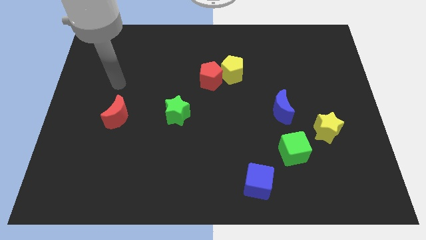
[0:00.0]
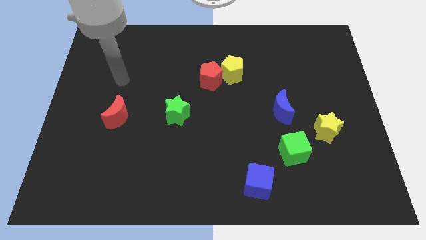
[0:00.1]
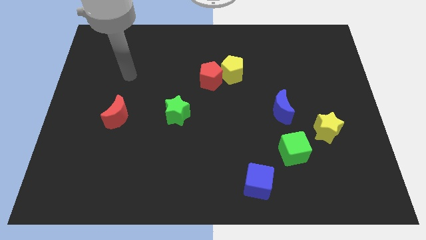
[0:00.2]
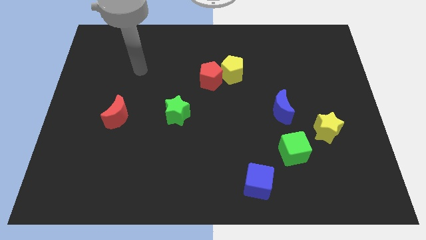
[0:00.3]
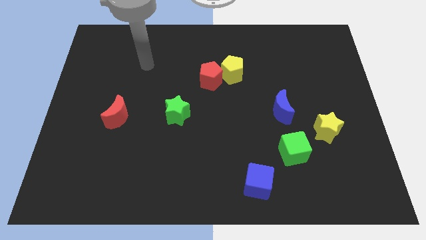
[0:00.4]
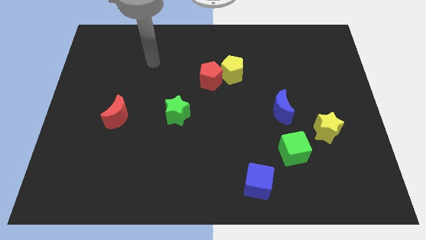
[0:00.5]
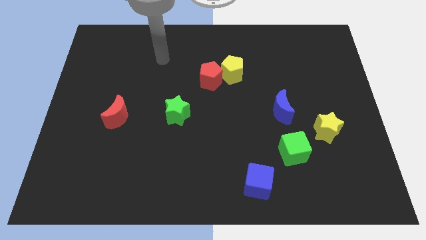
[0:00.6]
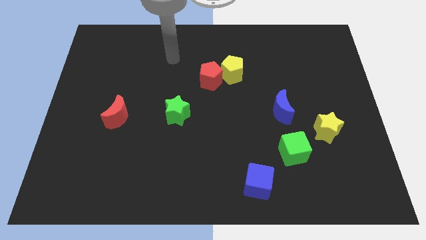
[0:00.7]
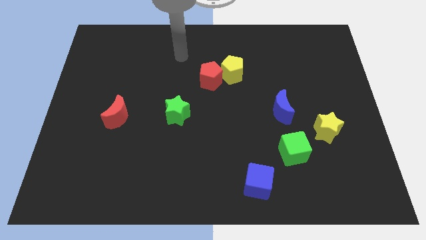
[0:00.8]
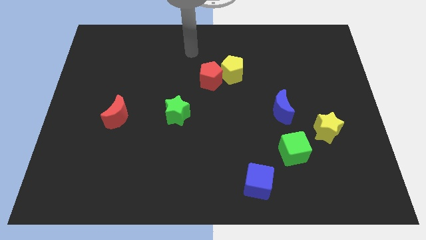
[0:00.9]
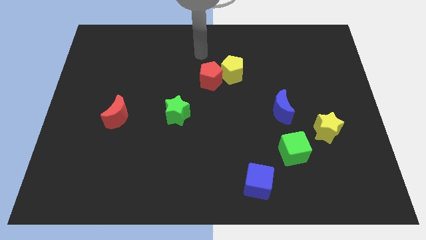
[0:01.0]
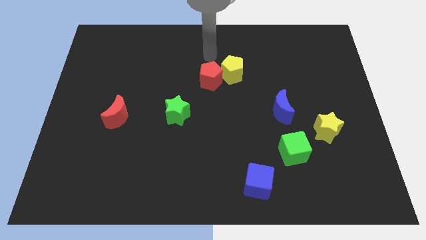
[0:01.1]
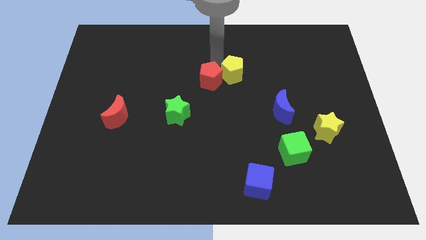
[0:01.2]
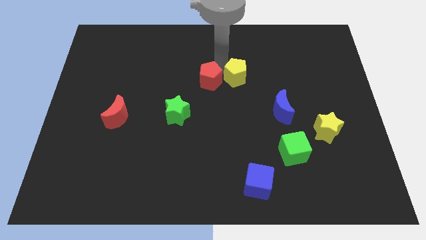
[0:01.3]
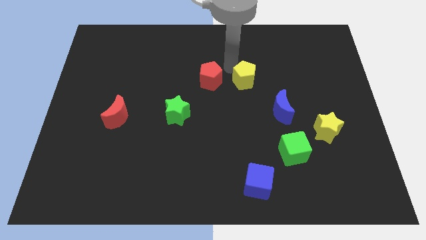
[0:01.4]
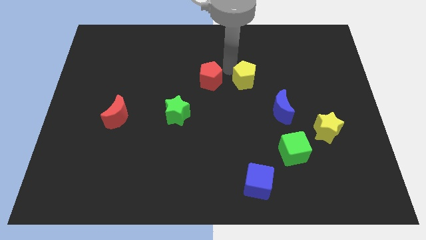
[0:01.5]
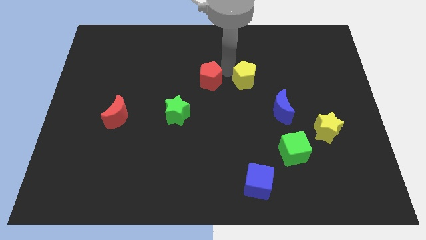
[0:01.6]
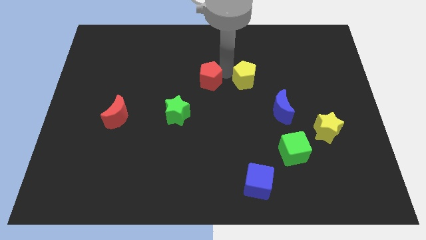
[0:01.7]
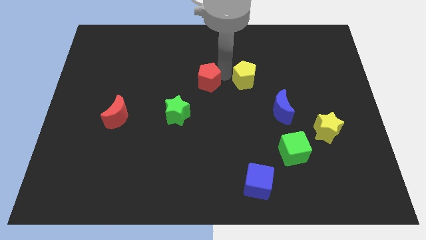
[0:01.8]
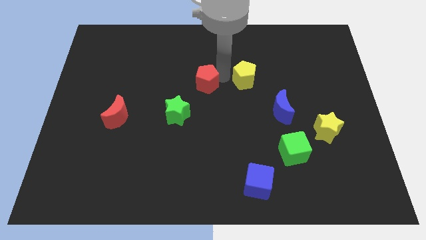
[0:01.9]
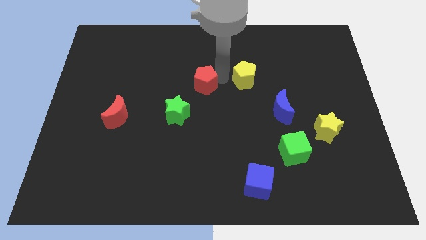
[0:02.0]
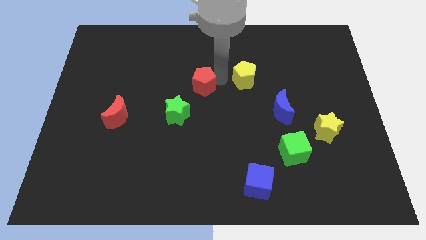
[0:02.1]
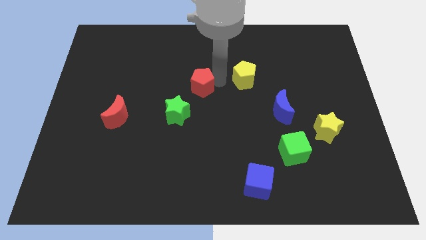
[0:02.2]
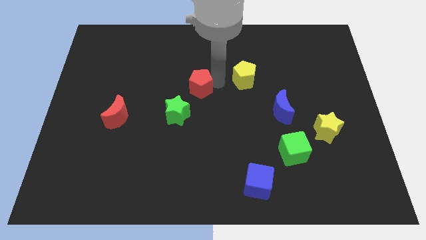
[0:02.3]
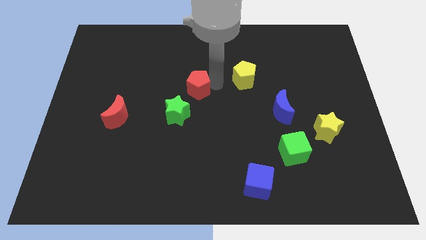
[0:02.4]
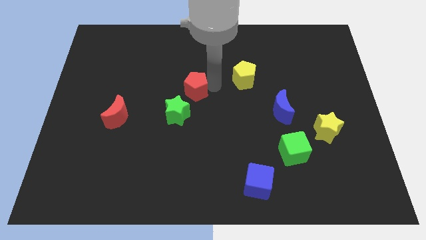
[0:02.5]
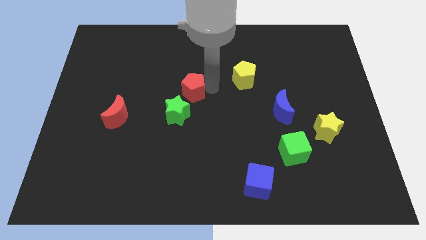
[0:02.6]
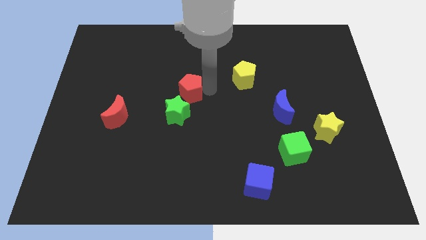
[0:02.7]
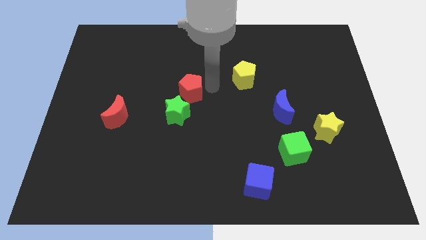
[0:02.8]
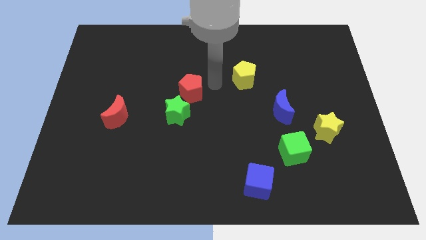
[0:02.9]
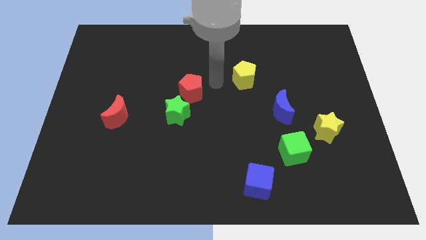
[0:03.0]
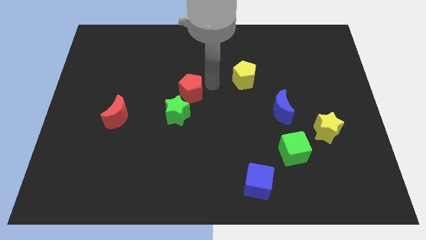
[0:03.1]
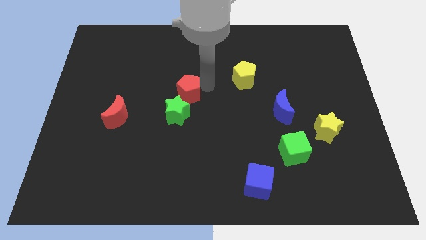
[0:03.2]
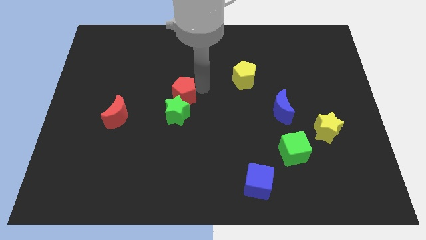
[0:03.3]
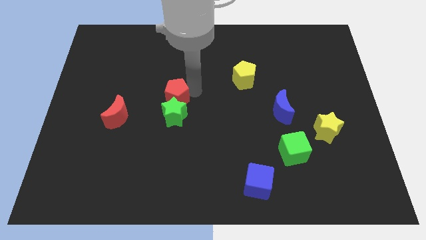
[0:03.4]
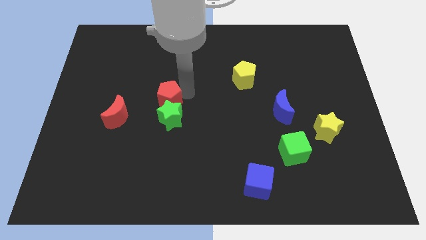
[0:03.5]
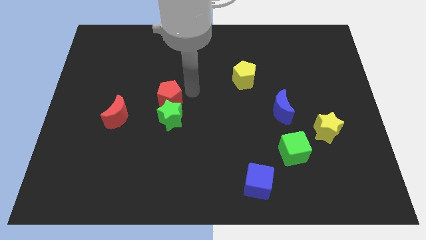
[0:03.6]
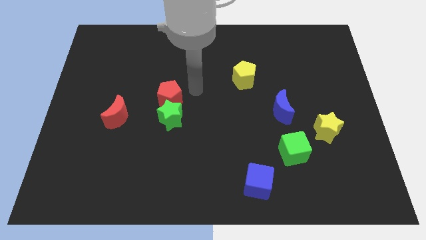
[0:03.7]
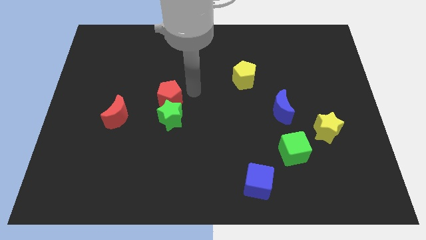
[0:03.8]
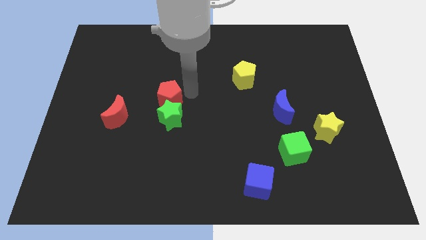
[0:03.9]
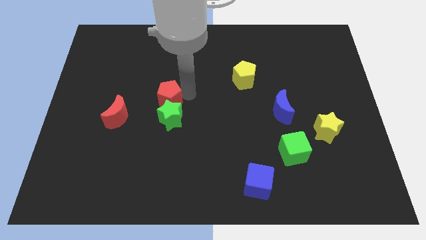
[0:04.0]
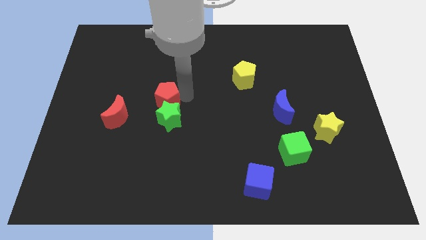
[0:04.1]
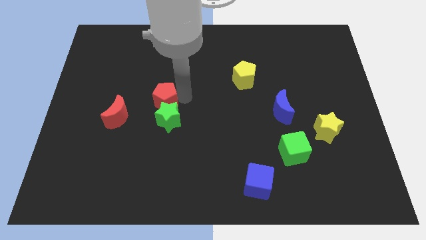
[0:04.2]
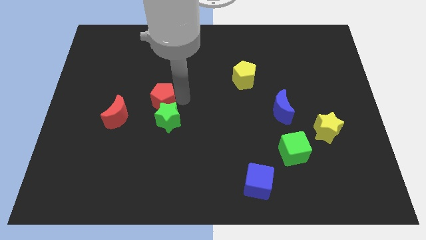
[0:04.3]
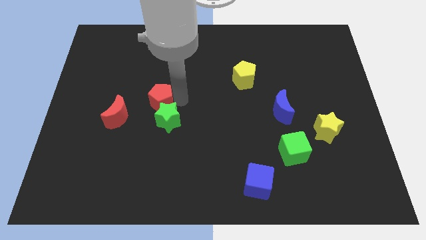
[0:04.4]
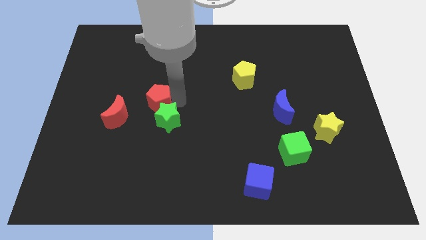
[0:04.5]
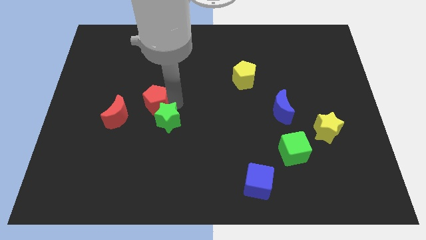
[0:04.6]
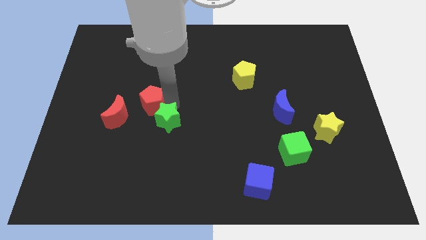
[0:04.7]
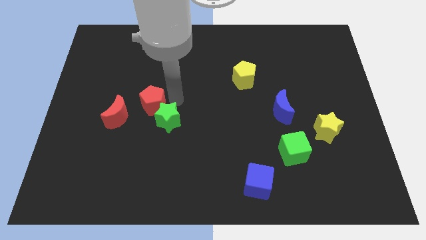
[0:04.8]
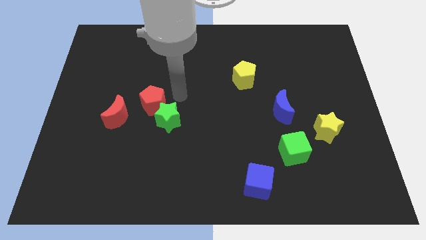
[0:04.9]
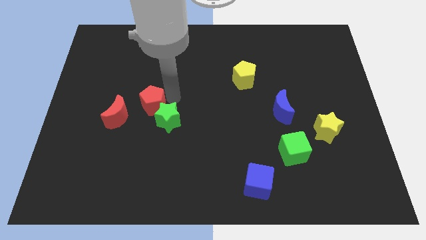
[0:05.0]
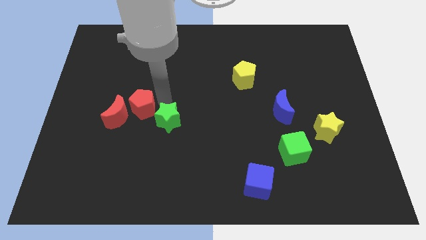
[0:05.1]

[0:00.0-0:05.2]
move the red pentagon towards the red moon

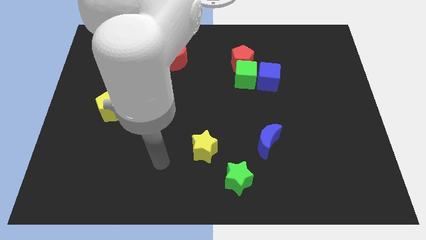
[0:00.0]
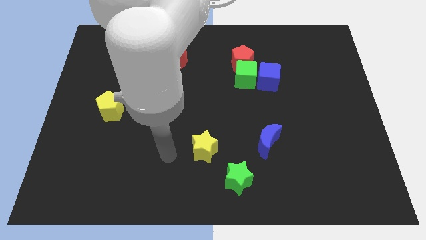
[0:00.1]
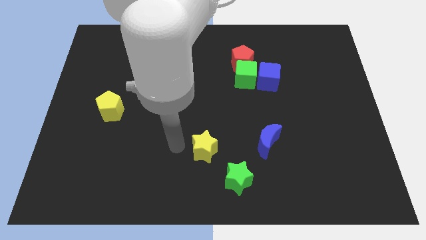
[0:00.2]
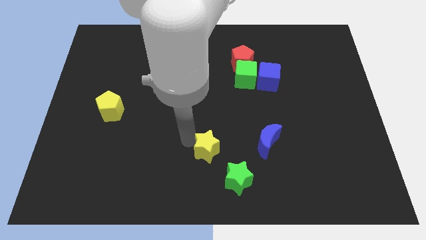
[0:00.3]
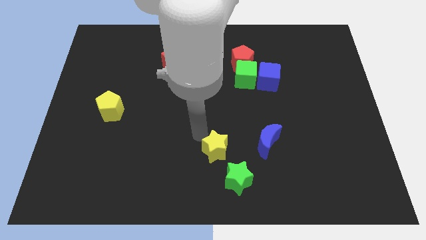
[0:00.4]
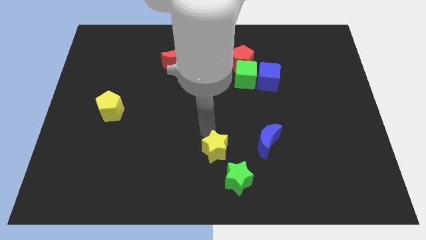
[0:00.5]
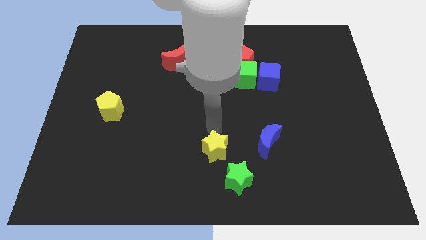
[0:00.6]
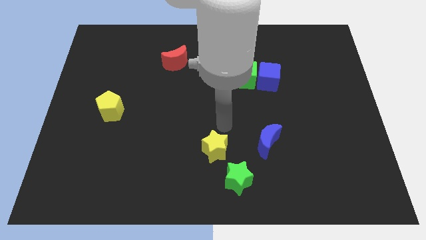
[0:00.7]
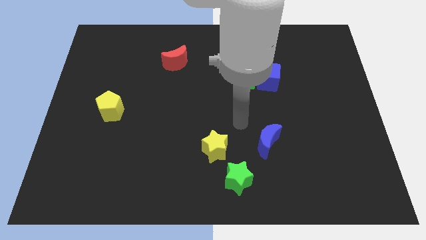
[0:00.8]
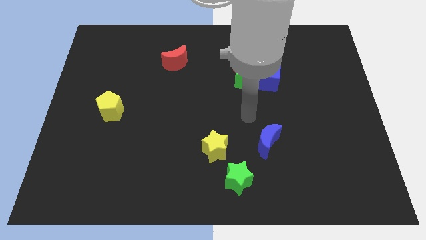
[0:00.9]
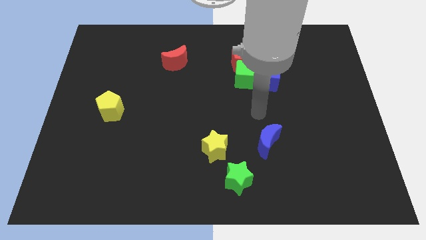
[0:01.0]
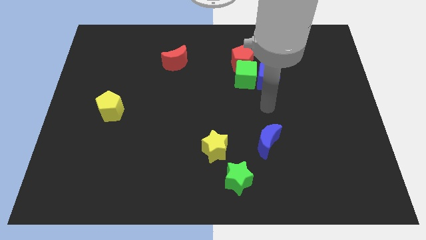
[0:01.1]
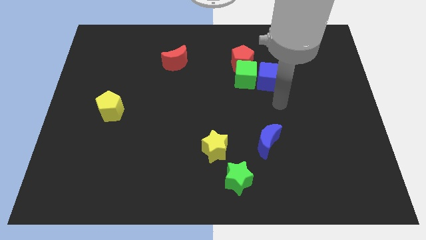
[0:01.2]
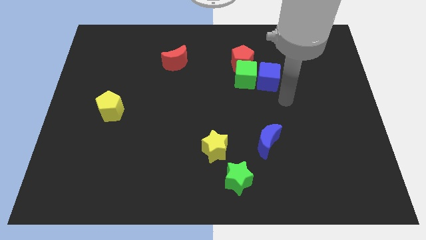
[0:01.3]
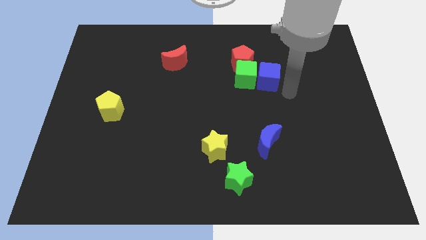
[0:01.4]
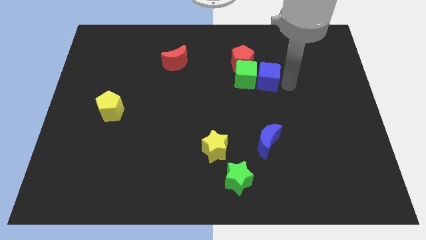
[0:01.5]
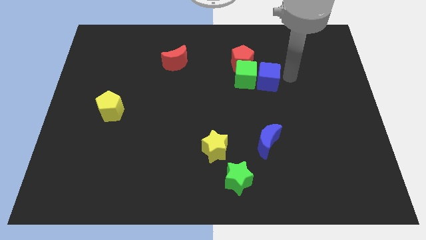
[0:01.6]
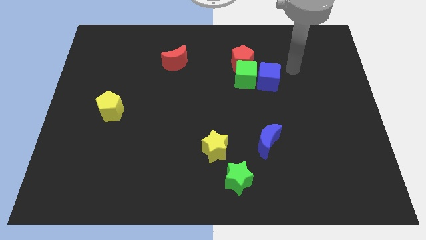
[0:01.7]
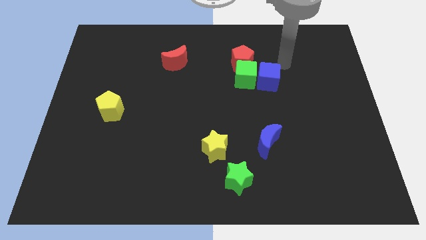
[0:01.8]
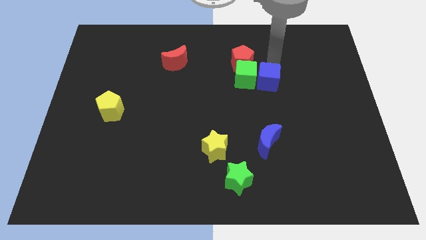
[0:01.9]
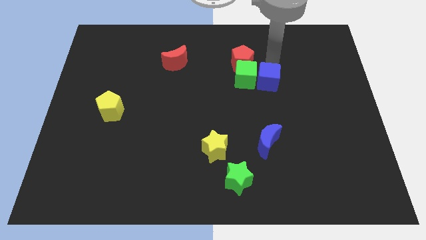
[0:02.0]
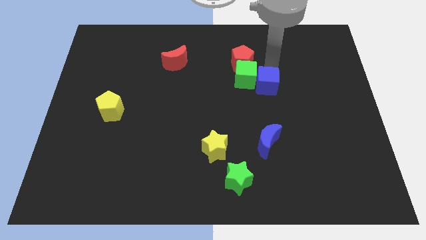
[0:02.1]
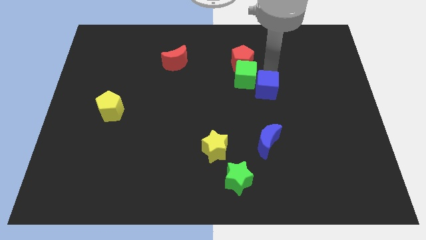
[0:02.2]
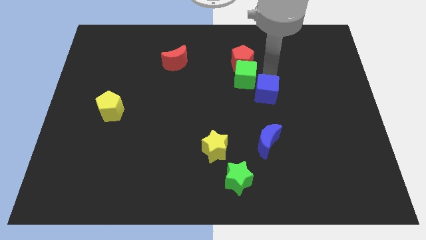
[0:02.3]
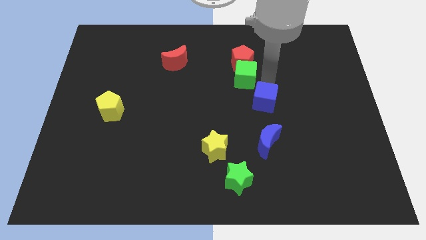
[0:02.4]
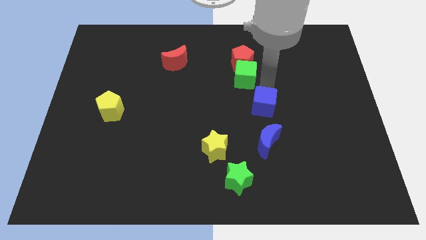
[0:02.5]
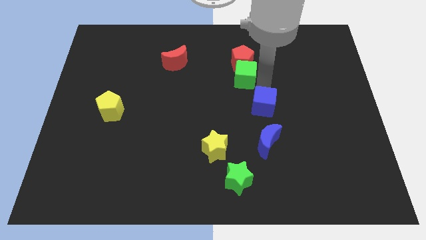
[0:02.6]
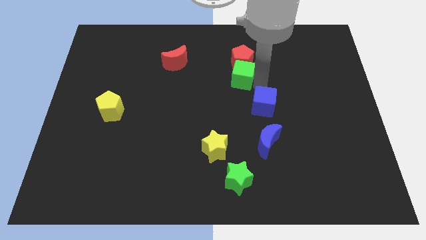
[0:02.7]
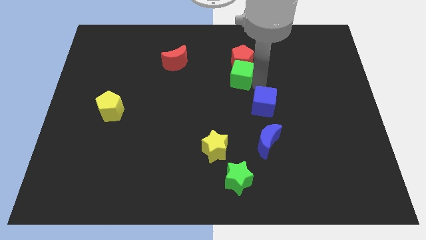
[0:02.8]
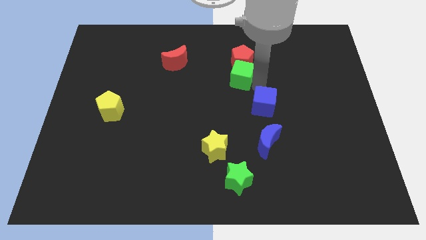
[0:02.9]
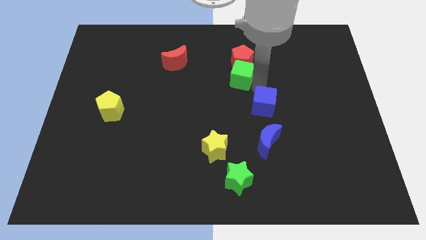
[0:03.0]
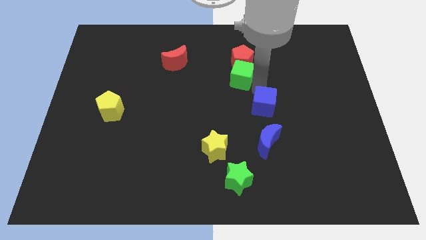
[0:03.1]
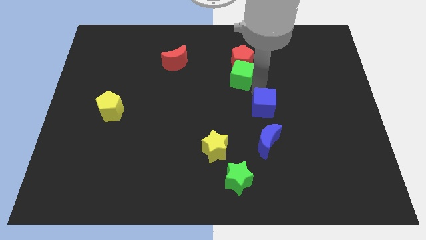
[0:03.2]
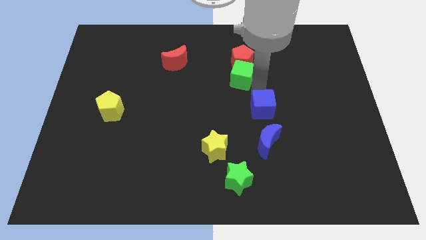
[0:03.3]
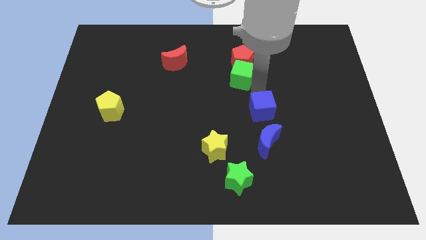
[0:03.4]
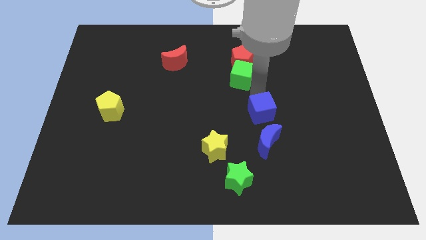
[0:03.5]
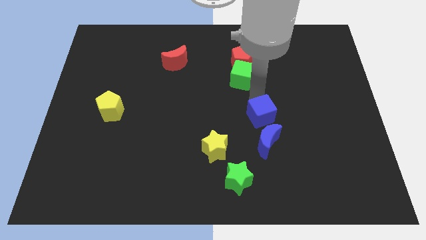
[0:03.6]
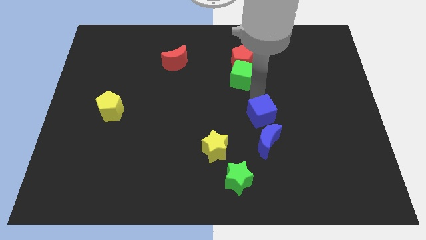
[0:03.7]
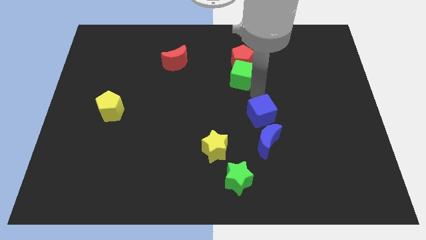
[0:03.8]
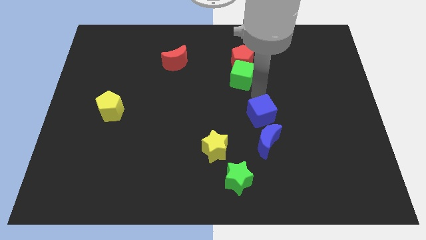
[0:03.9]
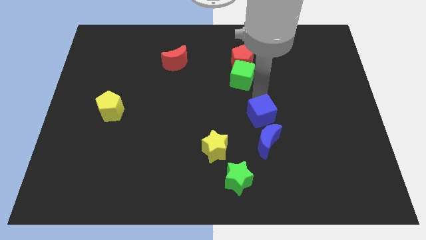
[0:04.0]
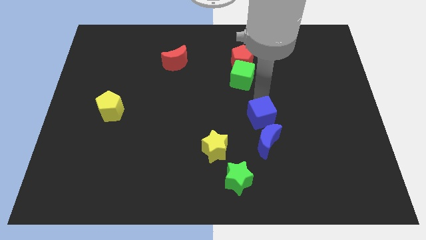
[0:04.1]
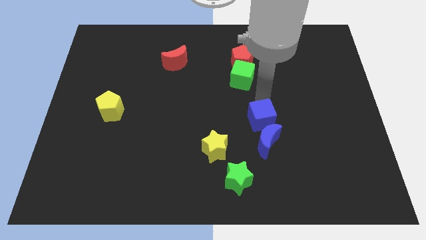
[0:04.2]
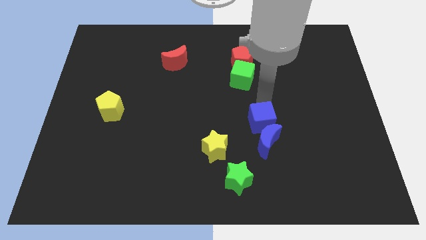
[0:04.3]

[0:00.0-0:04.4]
move the blue cube close to the blue moon
